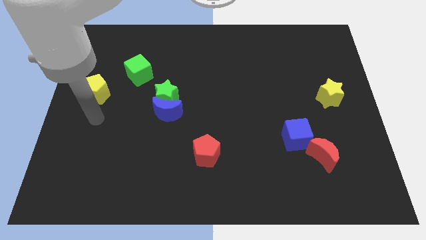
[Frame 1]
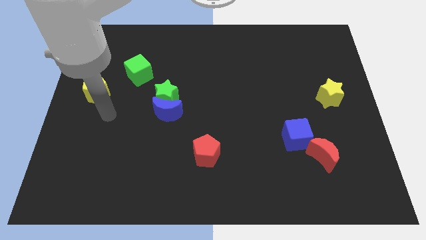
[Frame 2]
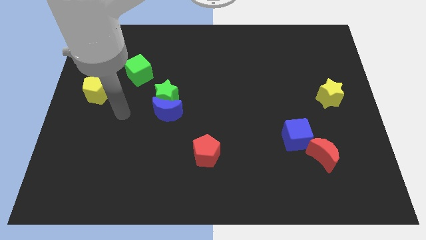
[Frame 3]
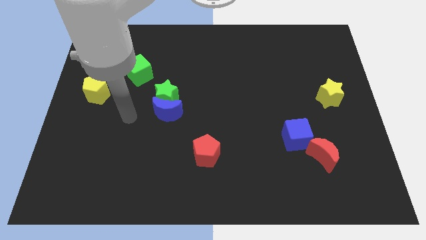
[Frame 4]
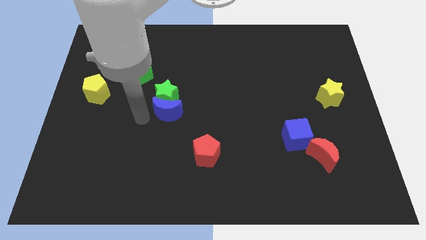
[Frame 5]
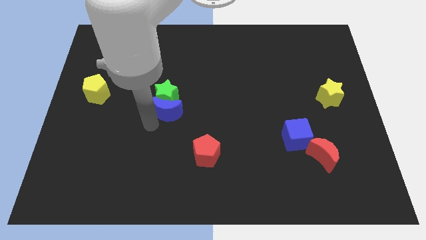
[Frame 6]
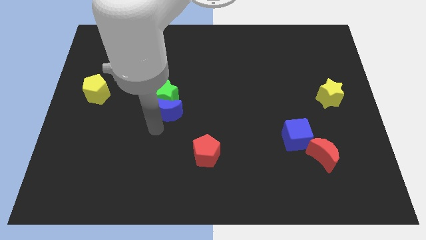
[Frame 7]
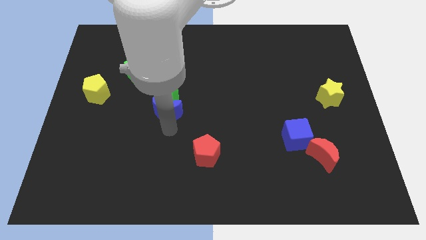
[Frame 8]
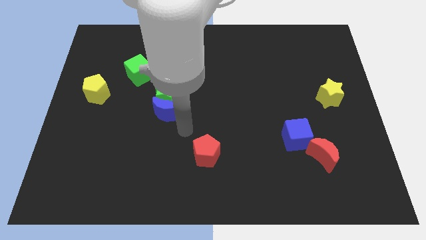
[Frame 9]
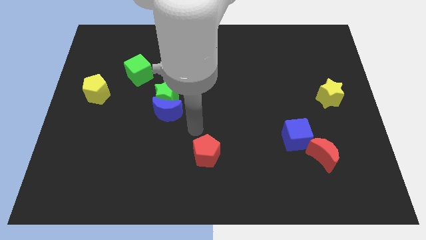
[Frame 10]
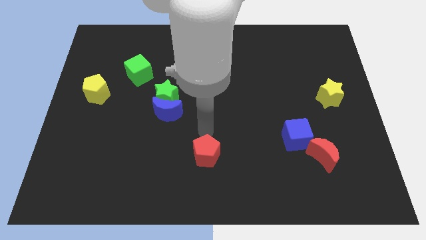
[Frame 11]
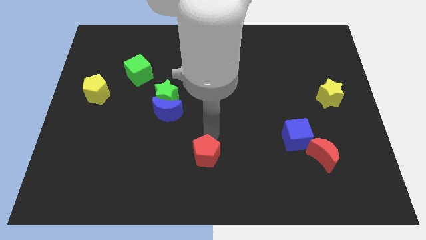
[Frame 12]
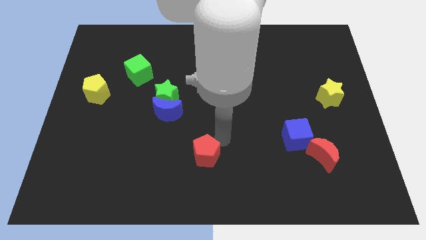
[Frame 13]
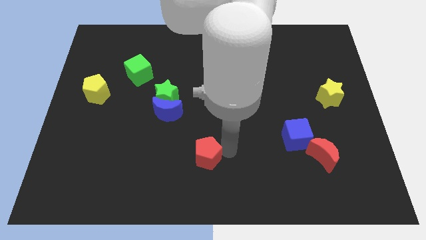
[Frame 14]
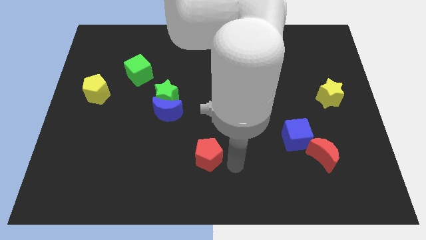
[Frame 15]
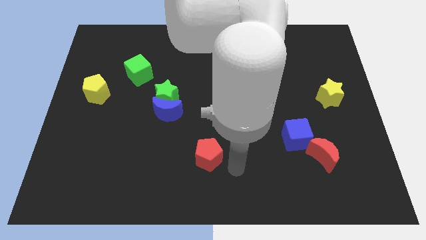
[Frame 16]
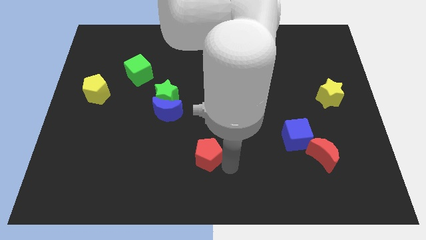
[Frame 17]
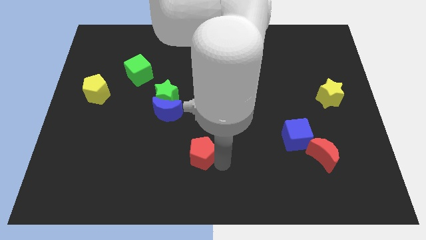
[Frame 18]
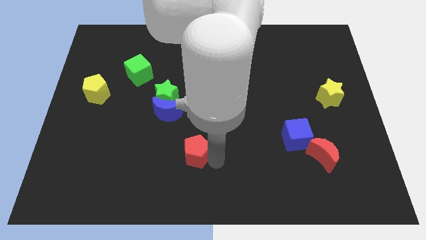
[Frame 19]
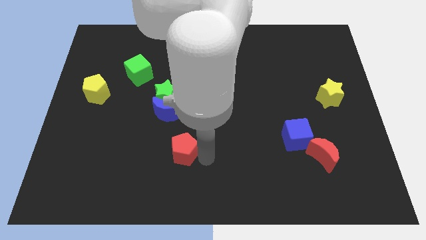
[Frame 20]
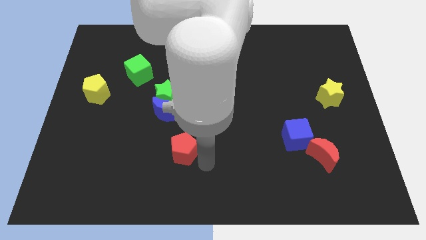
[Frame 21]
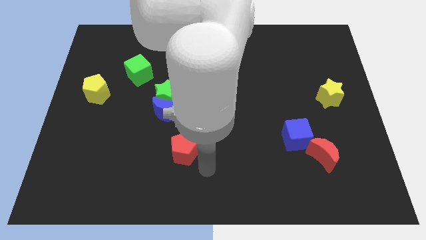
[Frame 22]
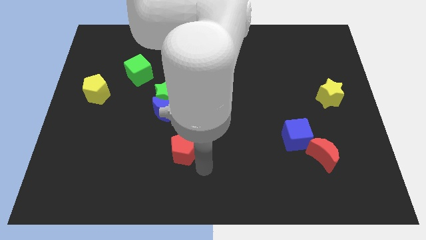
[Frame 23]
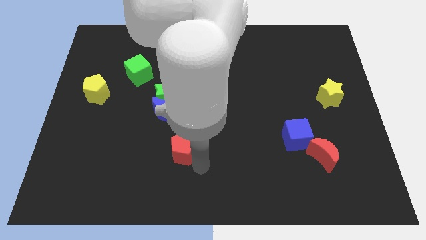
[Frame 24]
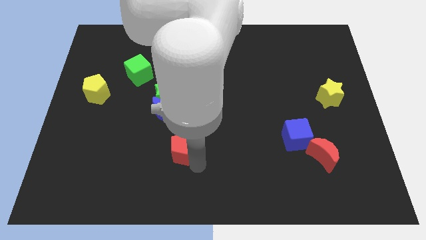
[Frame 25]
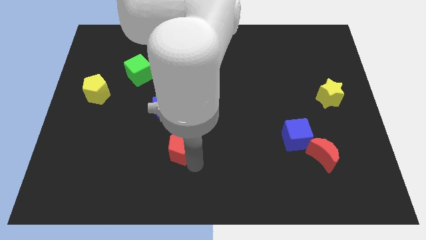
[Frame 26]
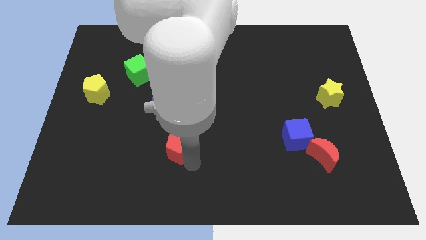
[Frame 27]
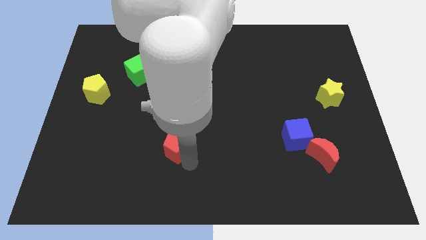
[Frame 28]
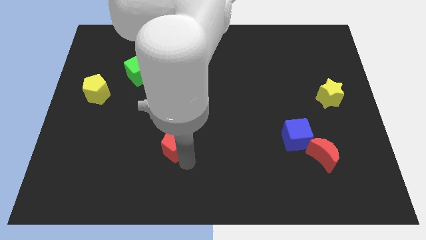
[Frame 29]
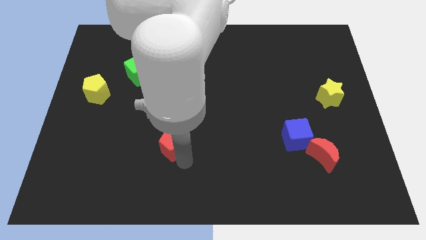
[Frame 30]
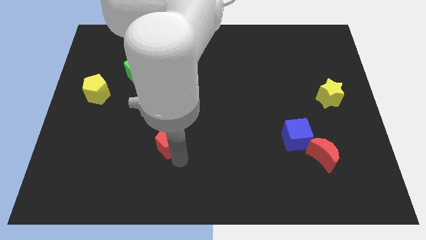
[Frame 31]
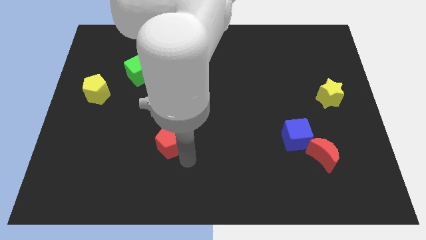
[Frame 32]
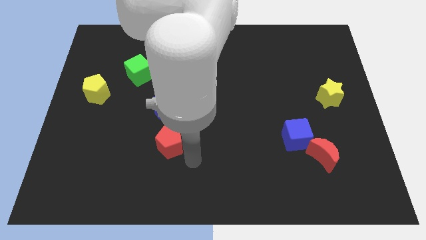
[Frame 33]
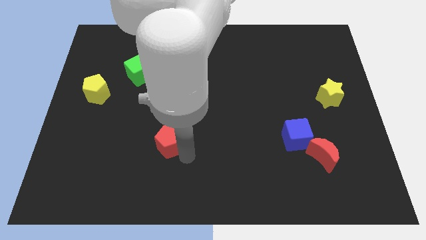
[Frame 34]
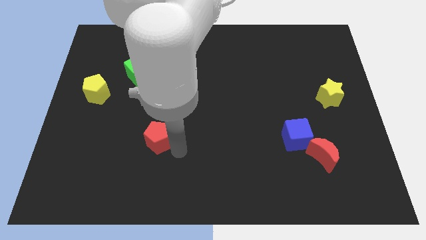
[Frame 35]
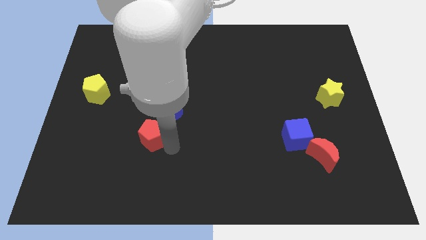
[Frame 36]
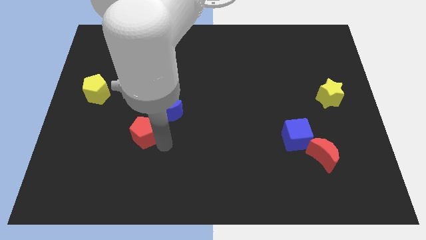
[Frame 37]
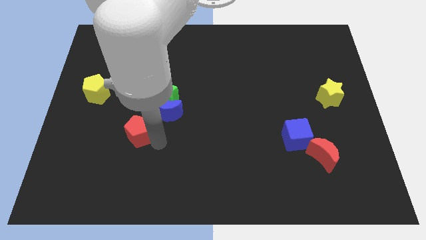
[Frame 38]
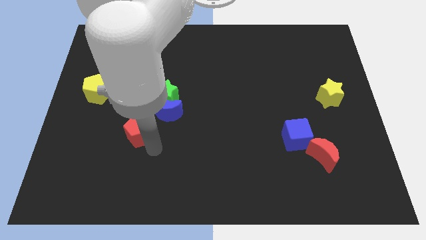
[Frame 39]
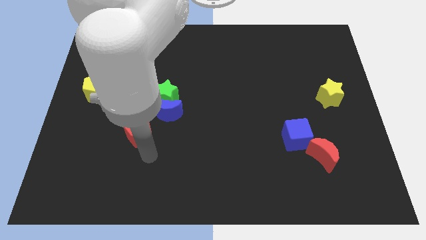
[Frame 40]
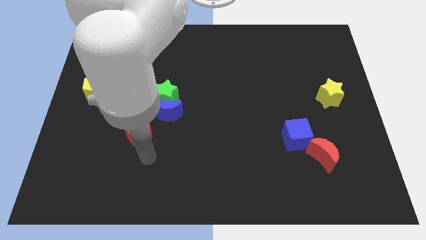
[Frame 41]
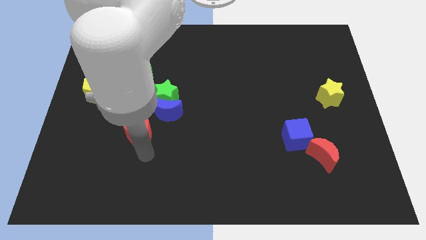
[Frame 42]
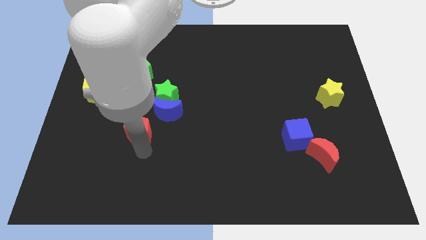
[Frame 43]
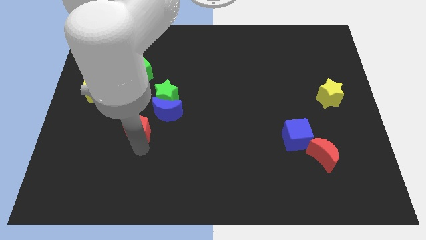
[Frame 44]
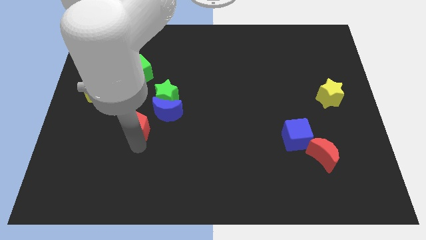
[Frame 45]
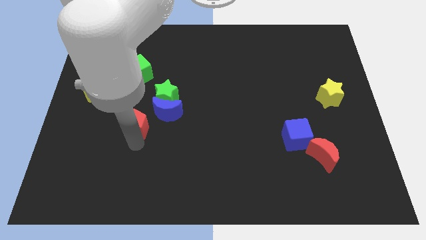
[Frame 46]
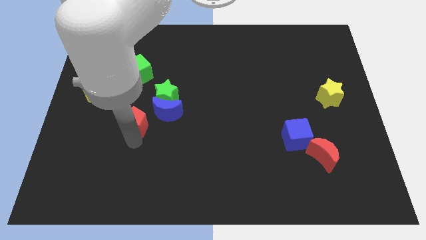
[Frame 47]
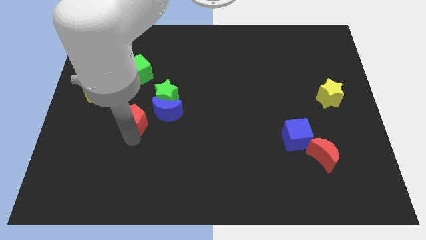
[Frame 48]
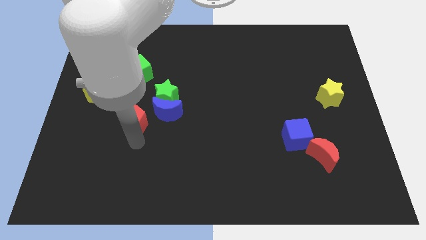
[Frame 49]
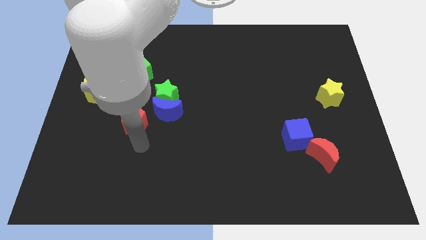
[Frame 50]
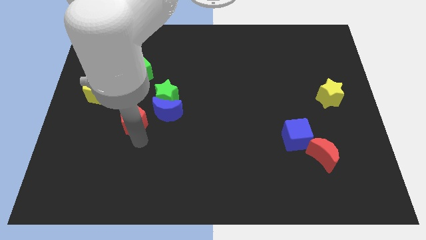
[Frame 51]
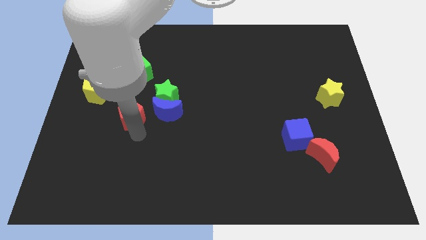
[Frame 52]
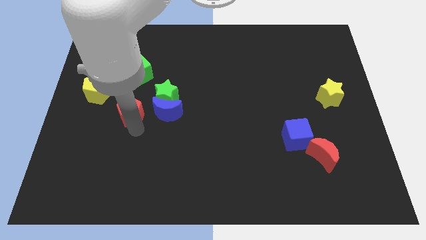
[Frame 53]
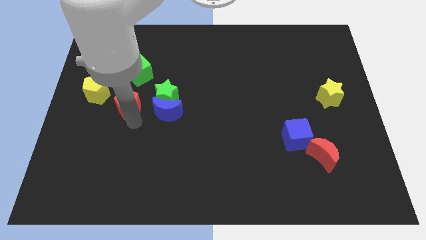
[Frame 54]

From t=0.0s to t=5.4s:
push the red pentagon upwards and then left

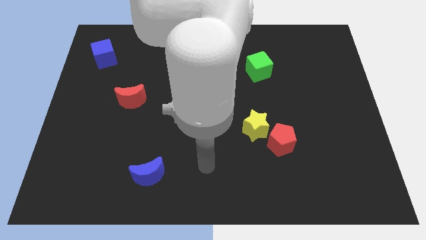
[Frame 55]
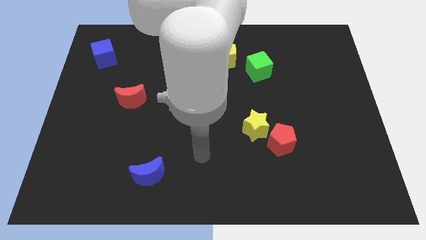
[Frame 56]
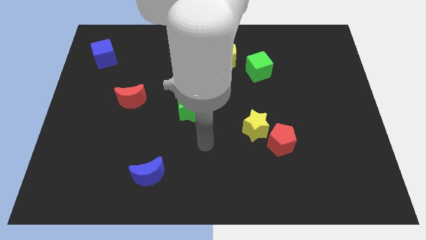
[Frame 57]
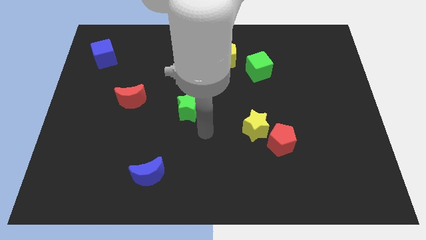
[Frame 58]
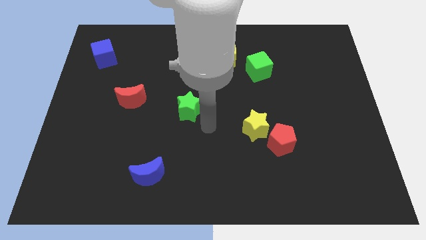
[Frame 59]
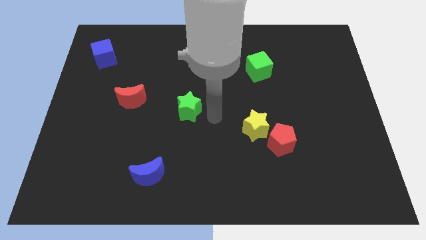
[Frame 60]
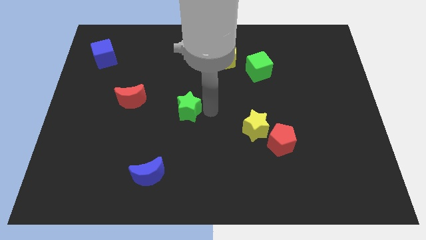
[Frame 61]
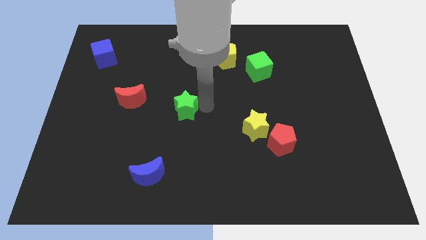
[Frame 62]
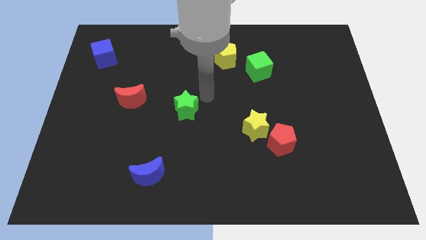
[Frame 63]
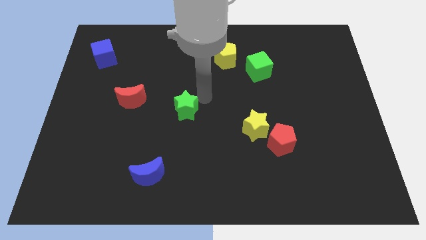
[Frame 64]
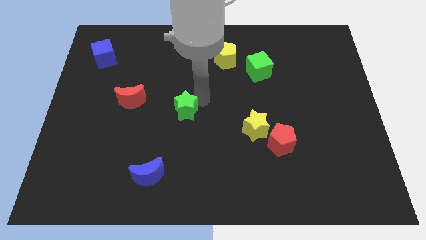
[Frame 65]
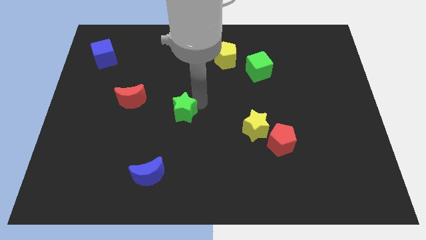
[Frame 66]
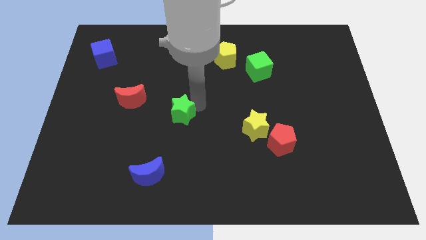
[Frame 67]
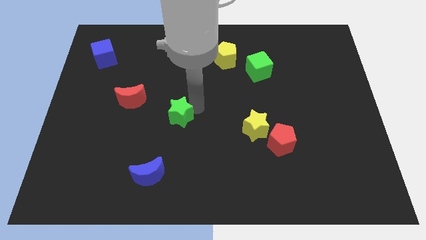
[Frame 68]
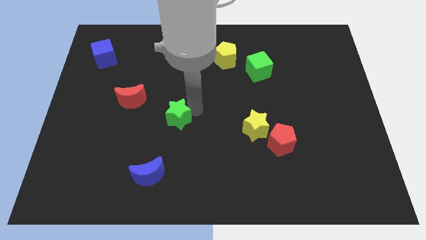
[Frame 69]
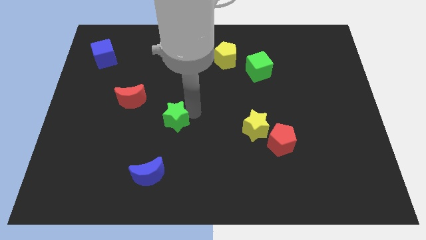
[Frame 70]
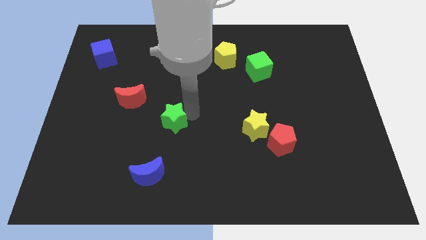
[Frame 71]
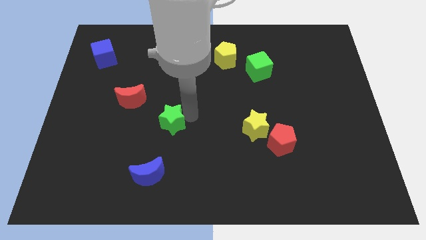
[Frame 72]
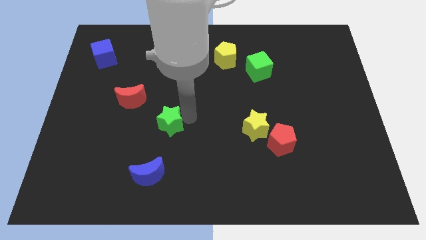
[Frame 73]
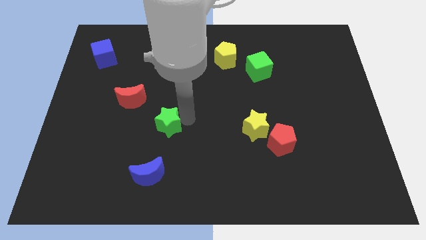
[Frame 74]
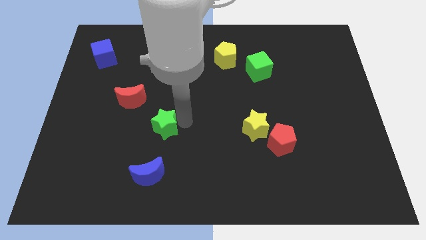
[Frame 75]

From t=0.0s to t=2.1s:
slightly slide the green star down and then to the left

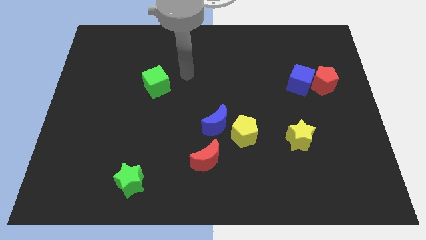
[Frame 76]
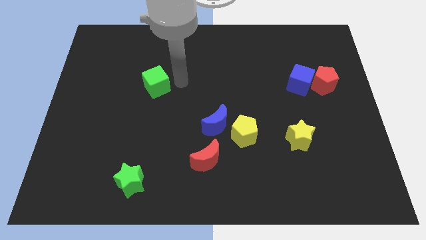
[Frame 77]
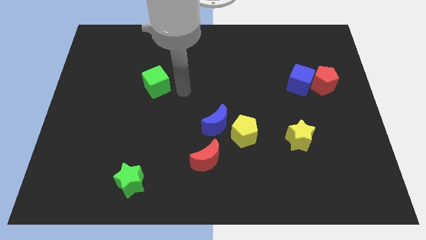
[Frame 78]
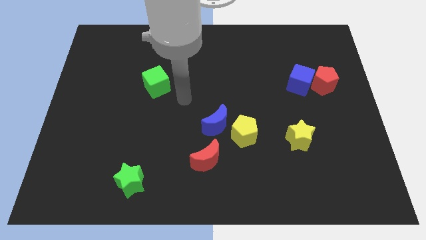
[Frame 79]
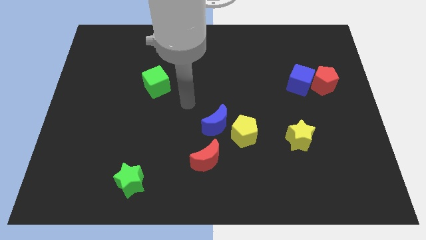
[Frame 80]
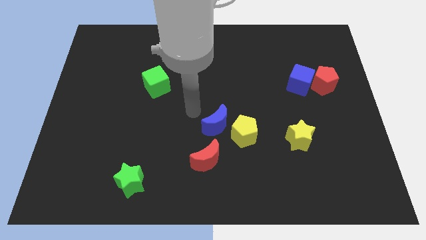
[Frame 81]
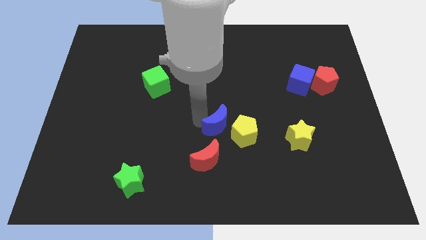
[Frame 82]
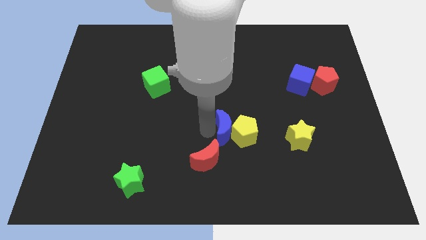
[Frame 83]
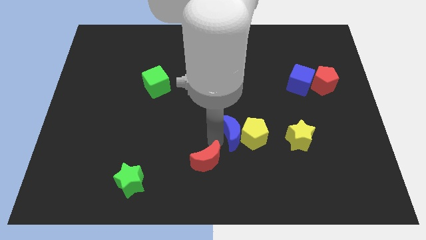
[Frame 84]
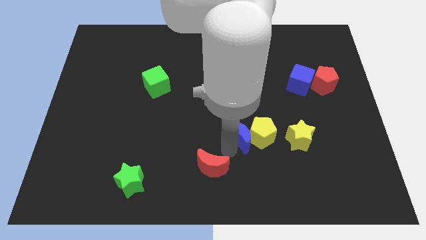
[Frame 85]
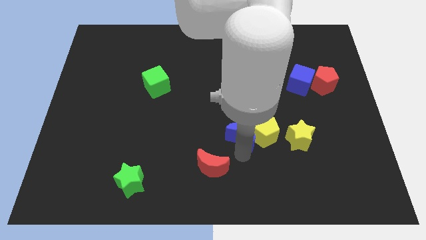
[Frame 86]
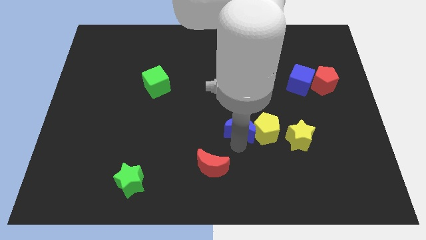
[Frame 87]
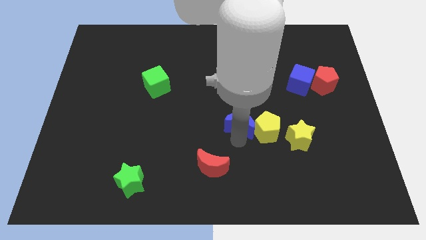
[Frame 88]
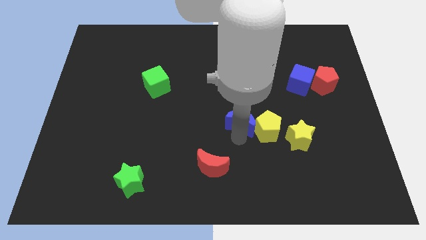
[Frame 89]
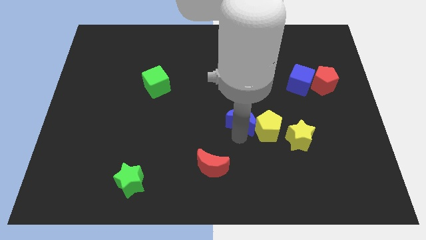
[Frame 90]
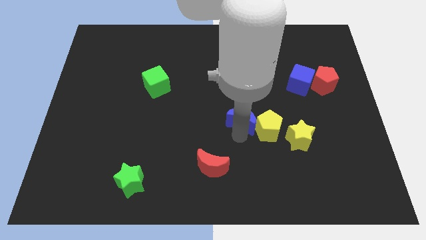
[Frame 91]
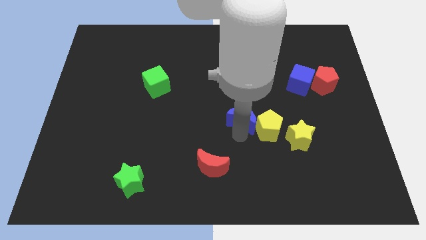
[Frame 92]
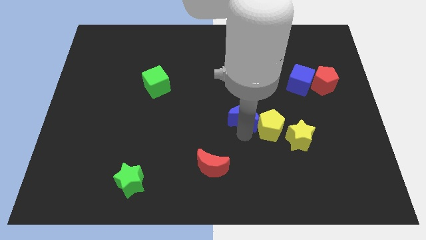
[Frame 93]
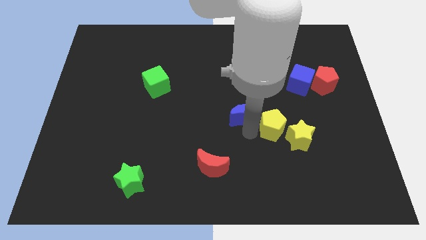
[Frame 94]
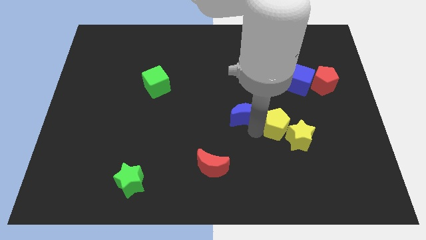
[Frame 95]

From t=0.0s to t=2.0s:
slightly push the yellow pentagon right
